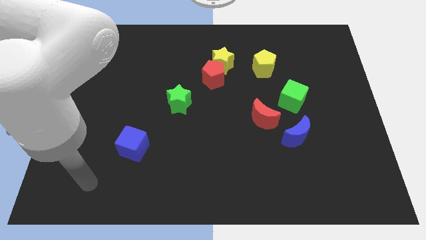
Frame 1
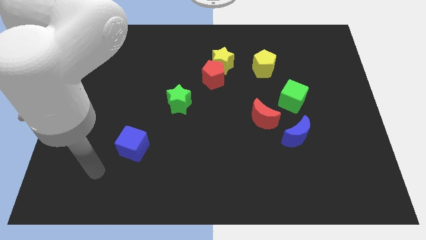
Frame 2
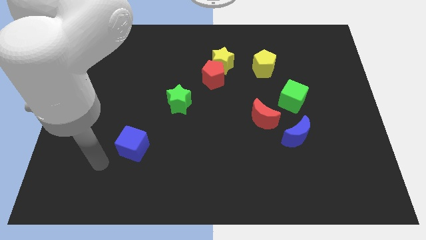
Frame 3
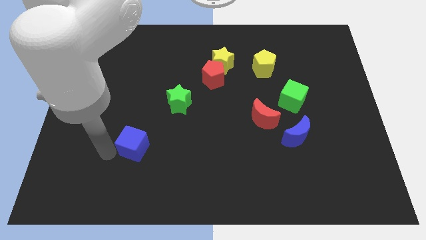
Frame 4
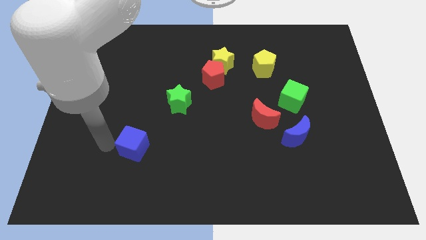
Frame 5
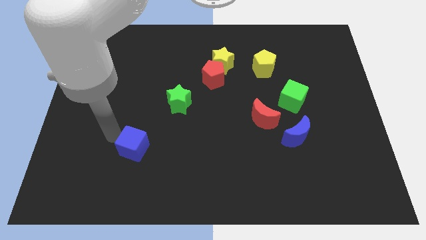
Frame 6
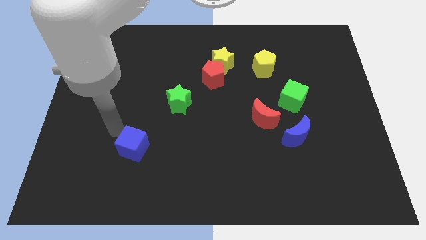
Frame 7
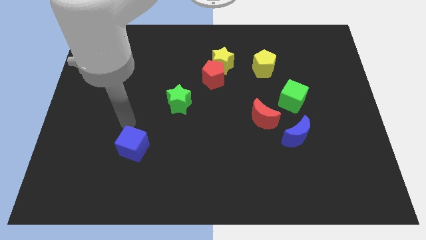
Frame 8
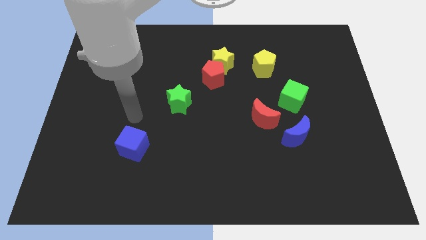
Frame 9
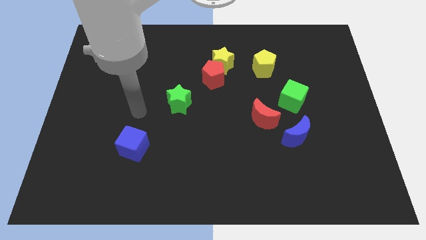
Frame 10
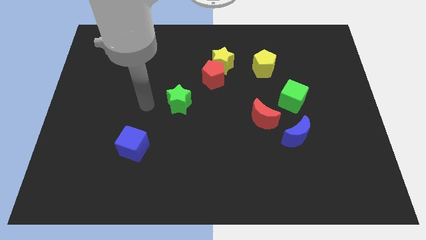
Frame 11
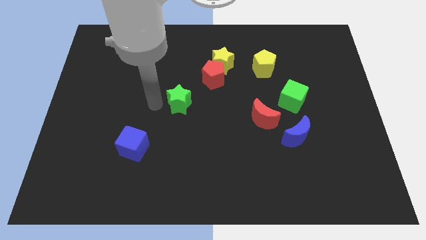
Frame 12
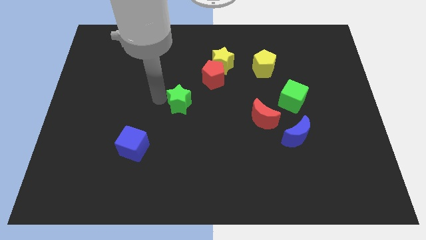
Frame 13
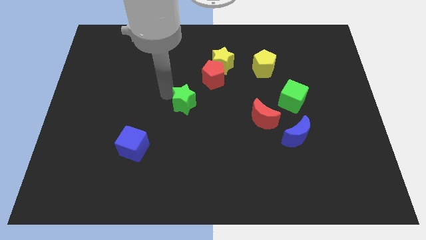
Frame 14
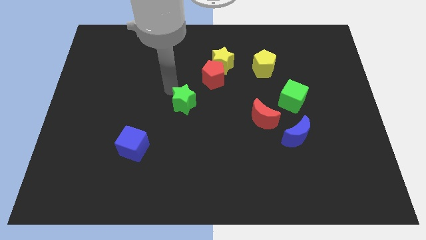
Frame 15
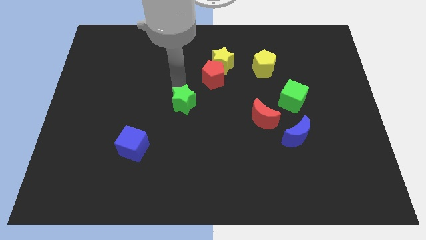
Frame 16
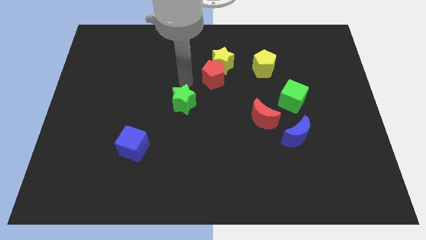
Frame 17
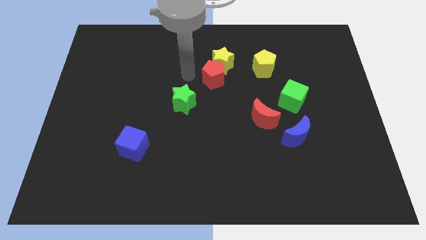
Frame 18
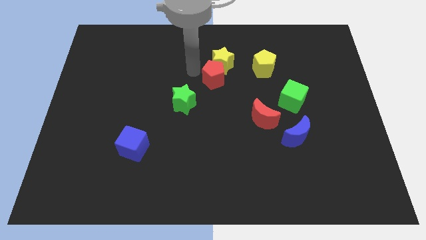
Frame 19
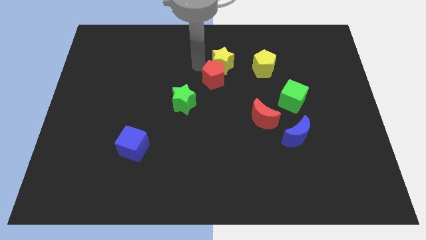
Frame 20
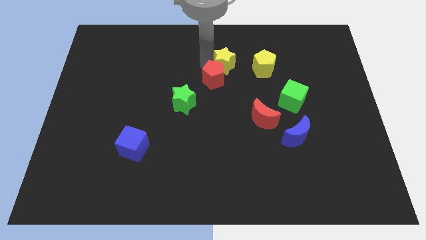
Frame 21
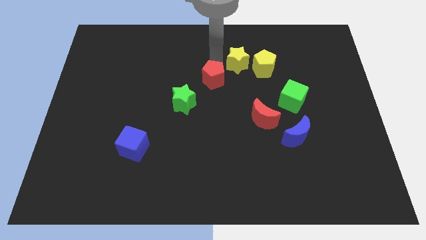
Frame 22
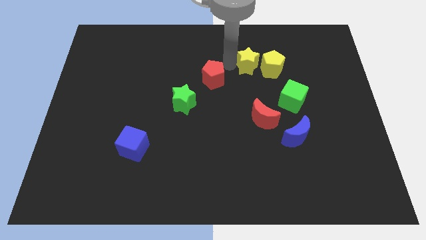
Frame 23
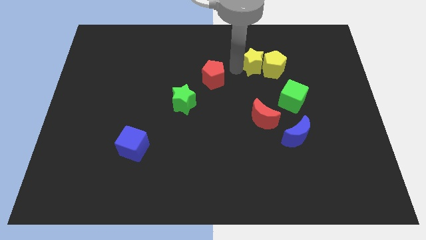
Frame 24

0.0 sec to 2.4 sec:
separate the red pentagon from the yellow star

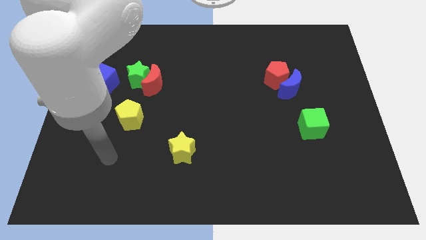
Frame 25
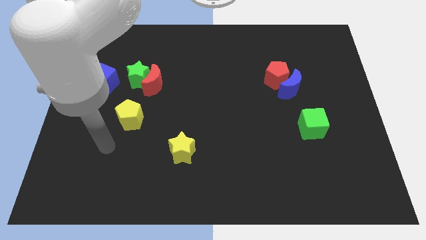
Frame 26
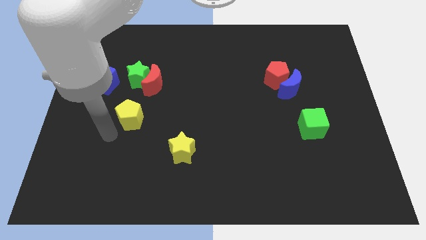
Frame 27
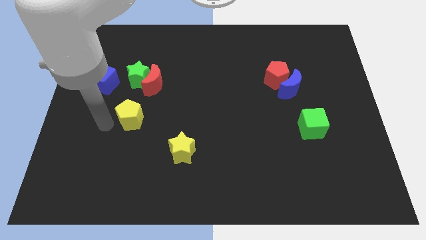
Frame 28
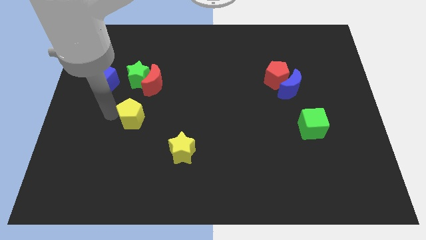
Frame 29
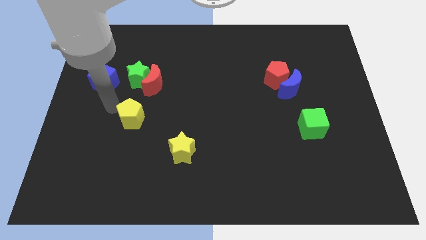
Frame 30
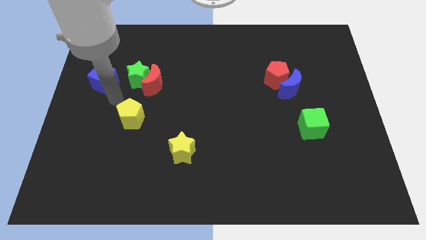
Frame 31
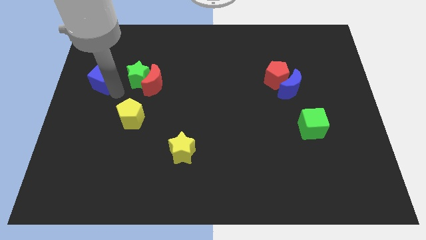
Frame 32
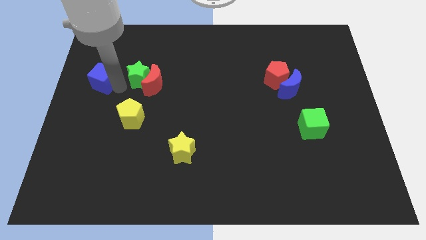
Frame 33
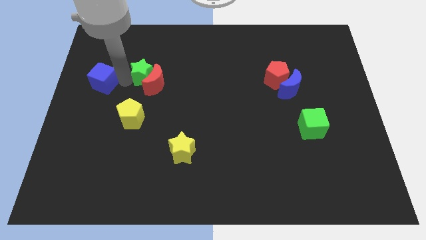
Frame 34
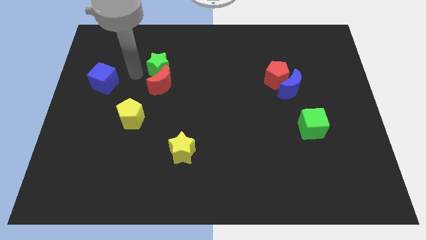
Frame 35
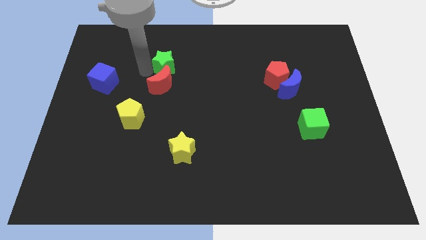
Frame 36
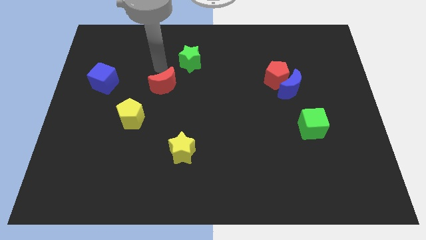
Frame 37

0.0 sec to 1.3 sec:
separate the red moon from the green star

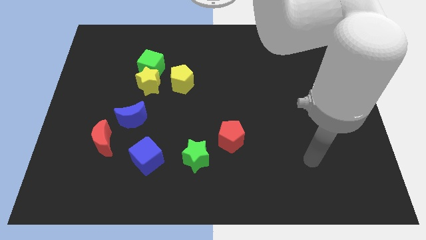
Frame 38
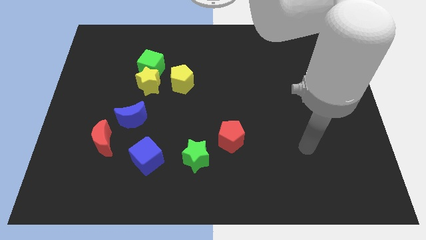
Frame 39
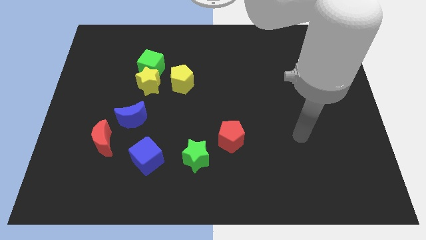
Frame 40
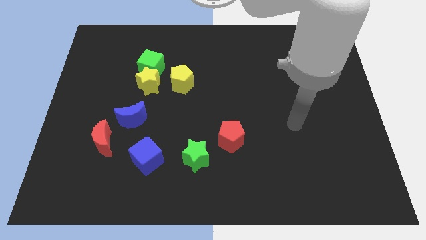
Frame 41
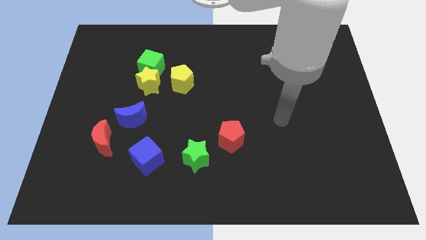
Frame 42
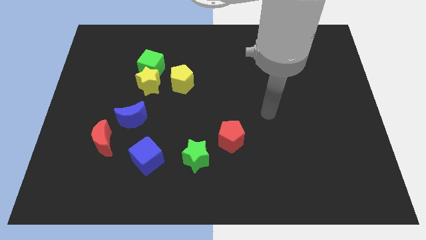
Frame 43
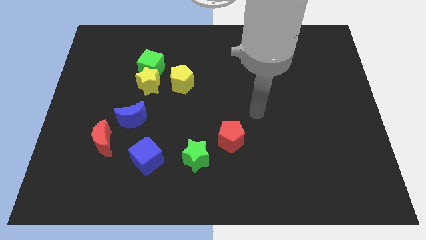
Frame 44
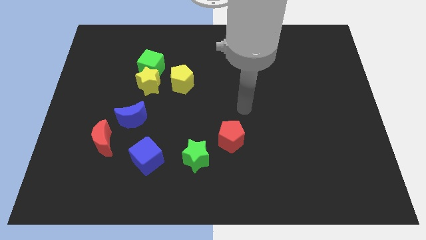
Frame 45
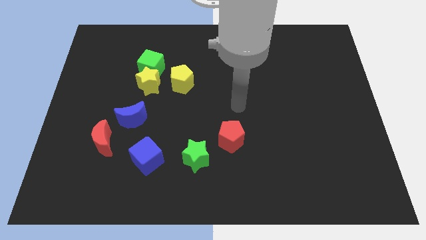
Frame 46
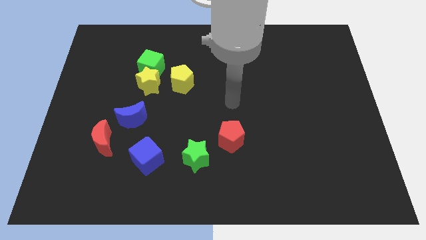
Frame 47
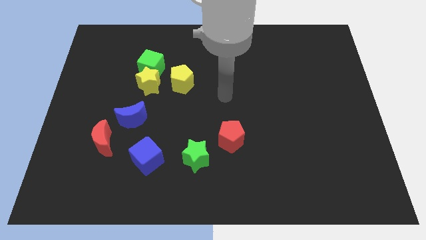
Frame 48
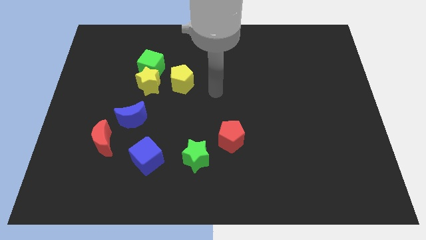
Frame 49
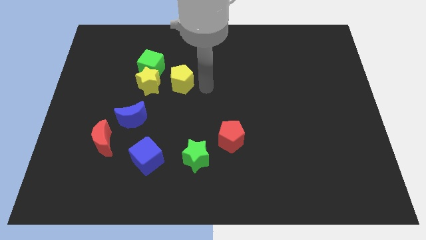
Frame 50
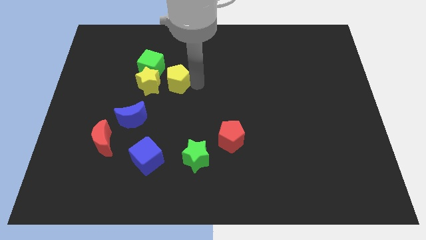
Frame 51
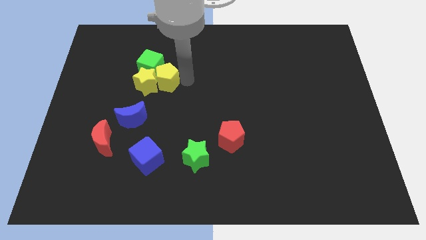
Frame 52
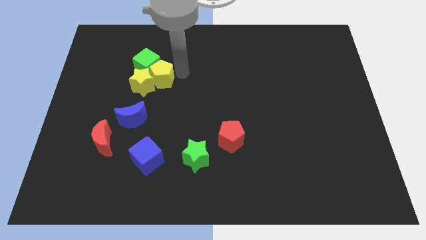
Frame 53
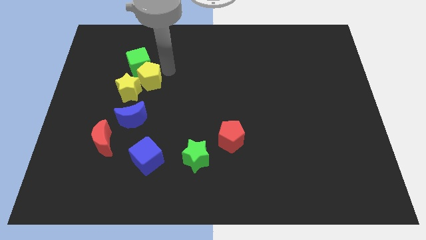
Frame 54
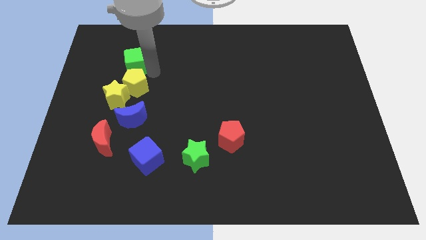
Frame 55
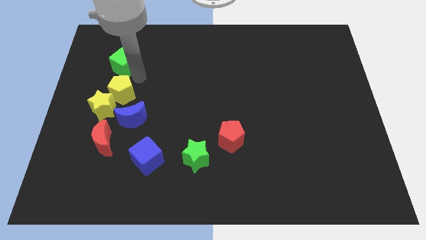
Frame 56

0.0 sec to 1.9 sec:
move the yellow star away from the green cube and yellow pentagon

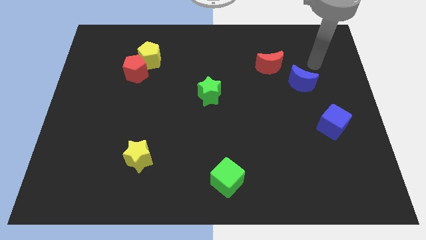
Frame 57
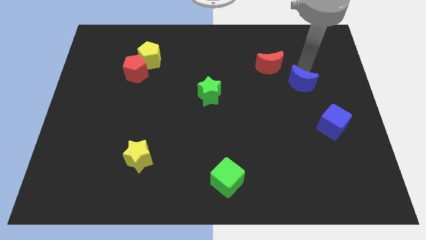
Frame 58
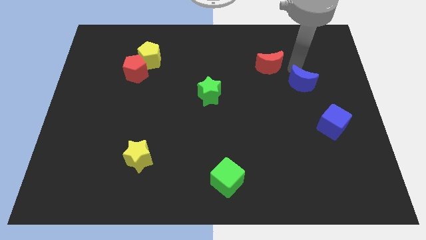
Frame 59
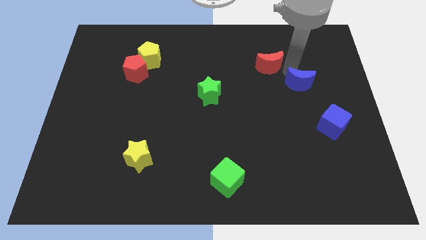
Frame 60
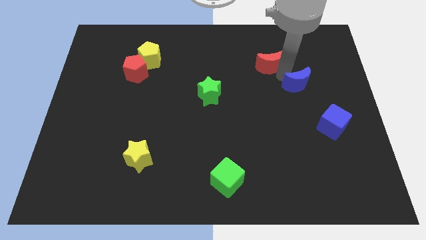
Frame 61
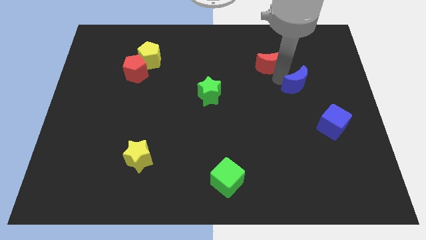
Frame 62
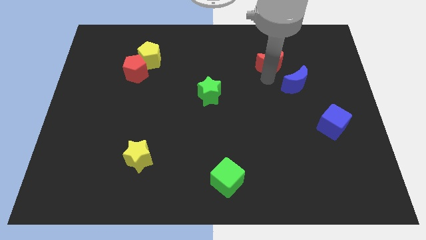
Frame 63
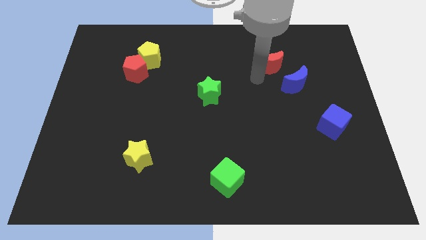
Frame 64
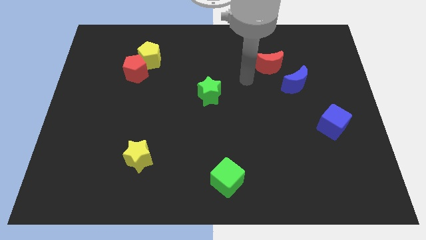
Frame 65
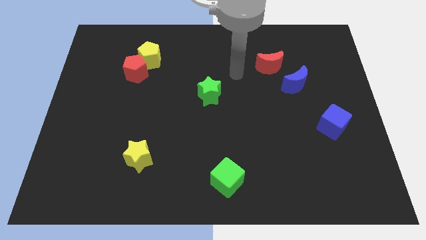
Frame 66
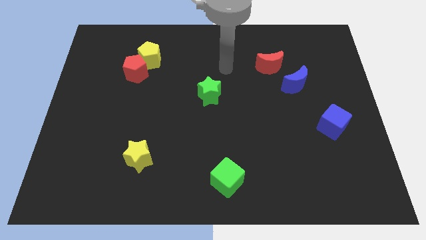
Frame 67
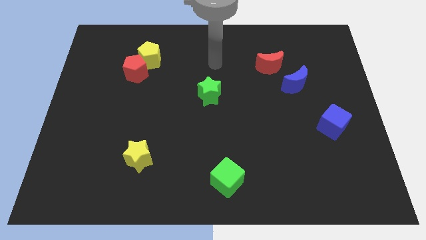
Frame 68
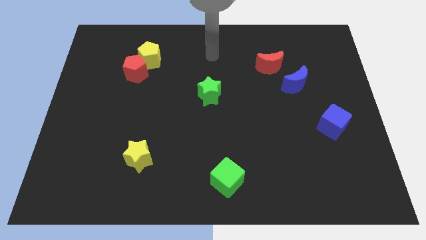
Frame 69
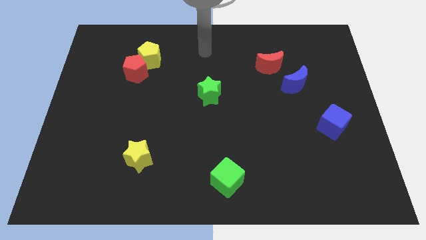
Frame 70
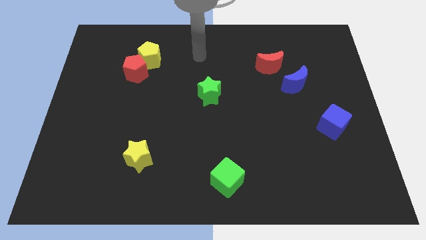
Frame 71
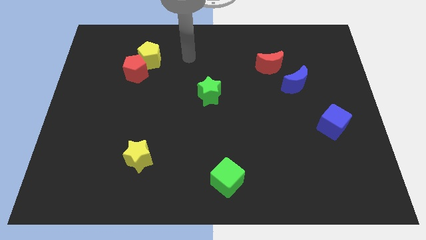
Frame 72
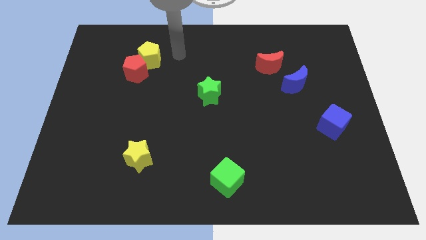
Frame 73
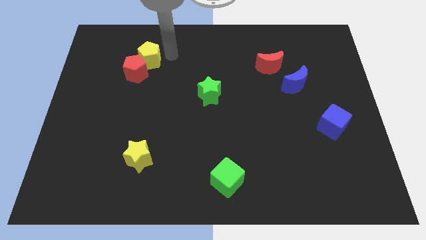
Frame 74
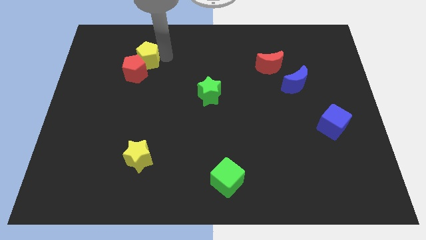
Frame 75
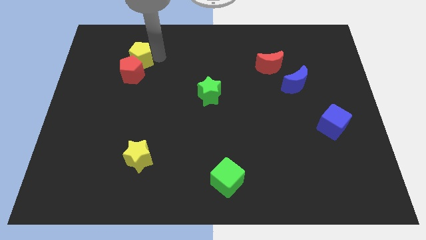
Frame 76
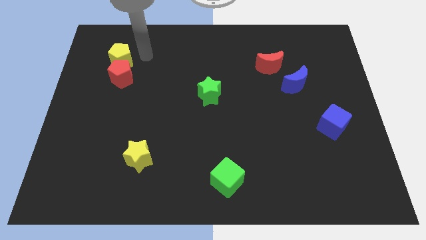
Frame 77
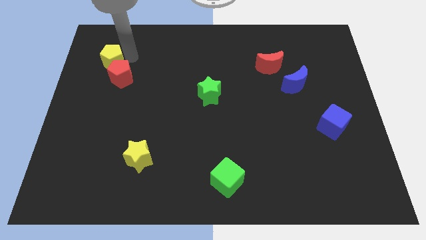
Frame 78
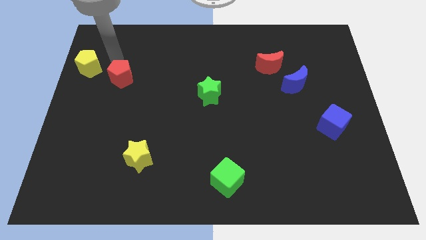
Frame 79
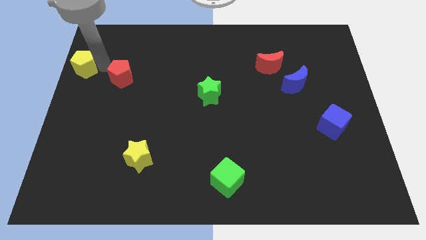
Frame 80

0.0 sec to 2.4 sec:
separate the red pentagon from the yellow pentagon

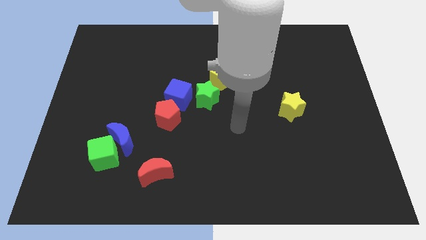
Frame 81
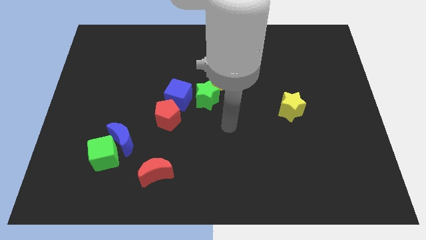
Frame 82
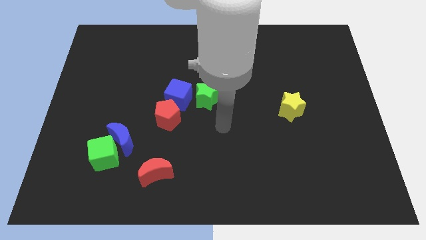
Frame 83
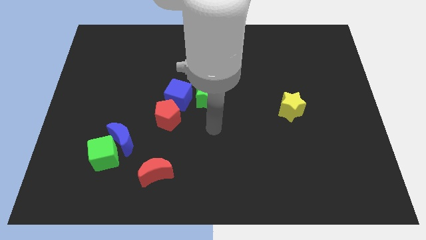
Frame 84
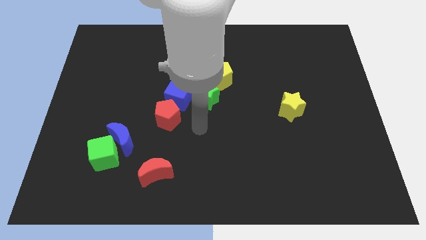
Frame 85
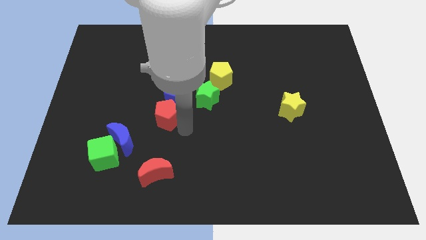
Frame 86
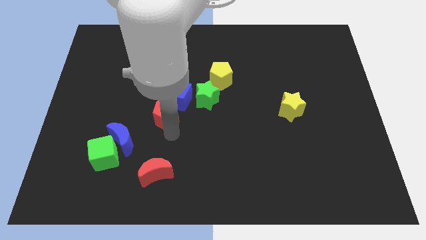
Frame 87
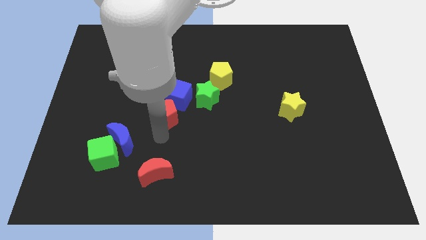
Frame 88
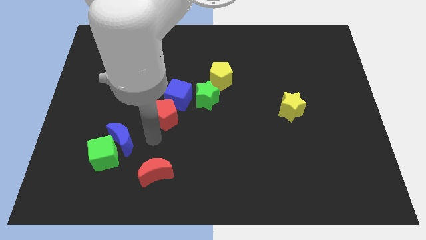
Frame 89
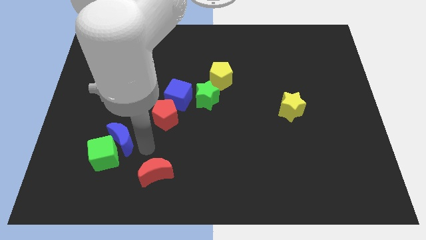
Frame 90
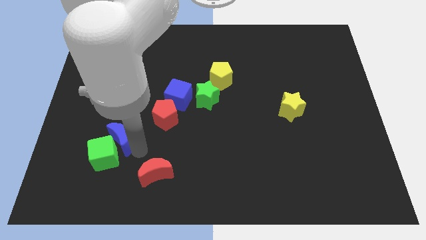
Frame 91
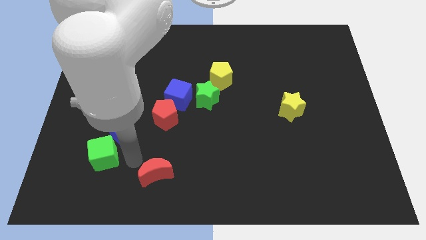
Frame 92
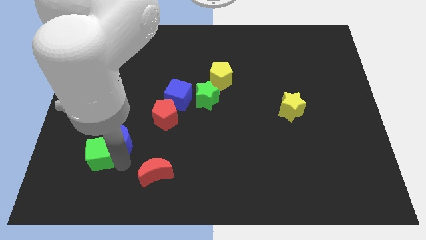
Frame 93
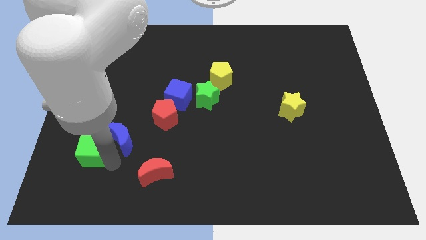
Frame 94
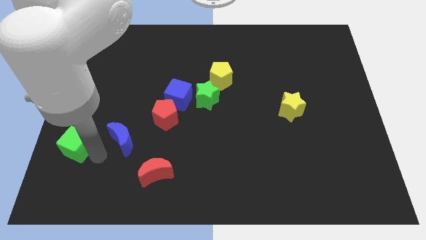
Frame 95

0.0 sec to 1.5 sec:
move the blue moon away from the green cube
